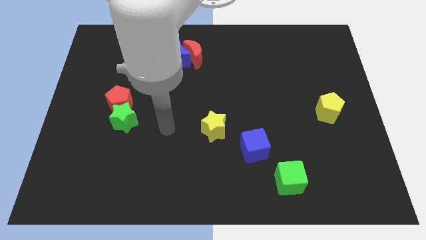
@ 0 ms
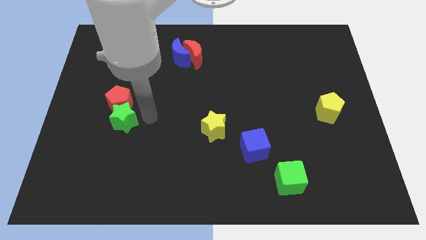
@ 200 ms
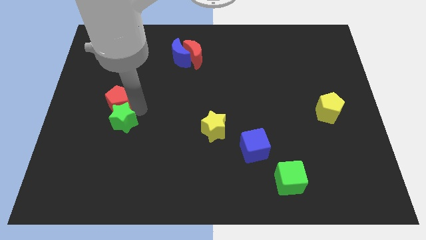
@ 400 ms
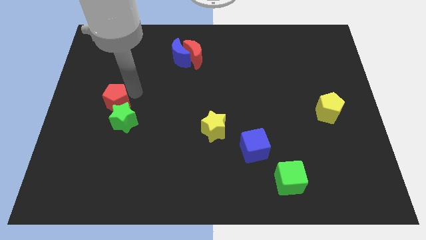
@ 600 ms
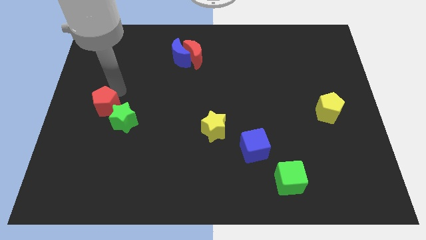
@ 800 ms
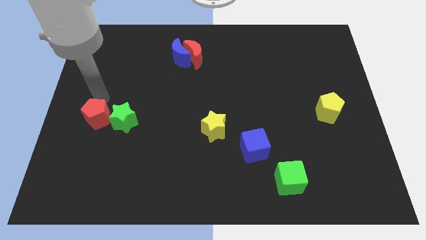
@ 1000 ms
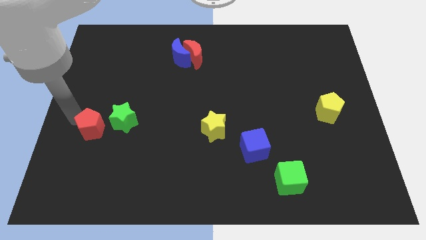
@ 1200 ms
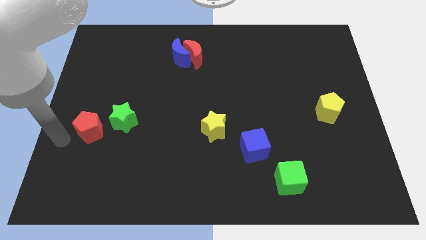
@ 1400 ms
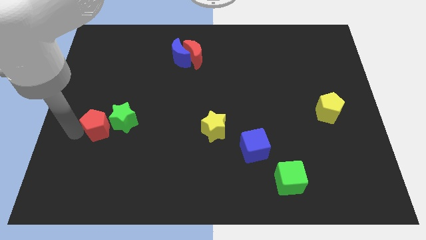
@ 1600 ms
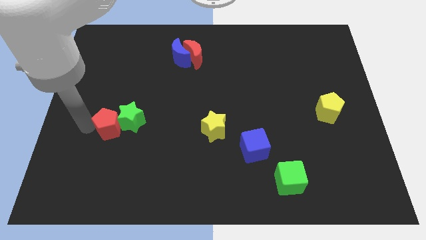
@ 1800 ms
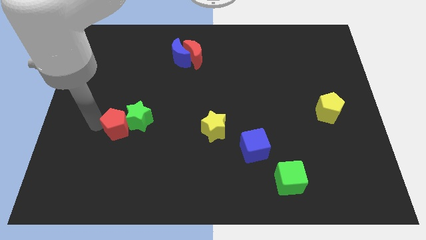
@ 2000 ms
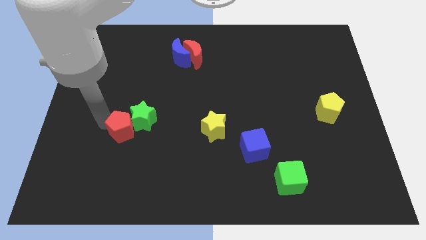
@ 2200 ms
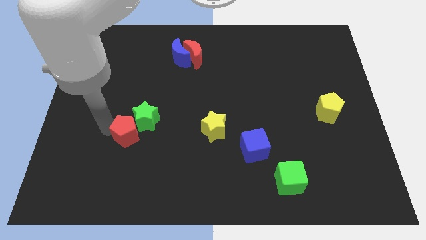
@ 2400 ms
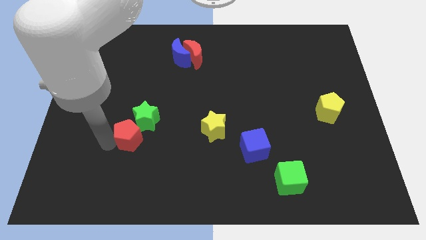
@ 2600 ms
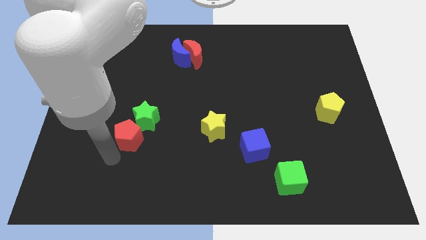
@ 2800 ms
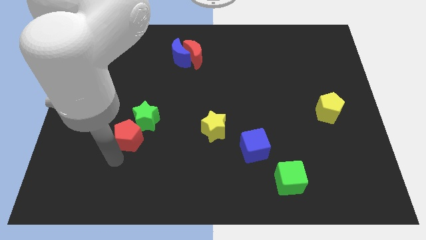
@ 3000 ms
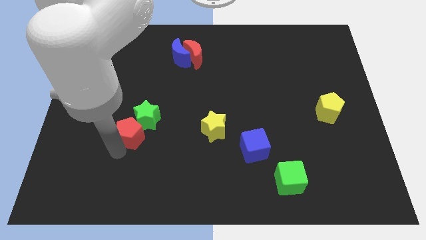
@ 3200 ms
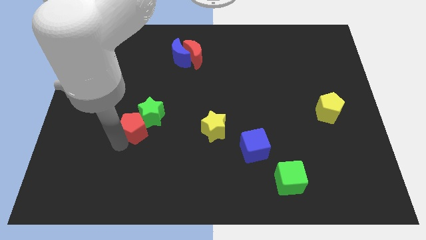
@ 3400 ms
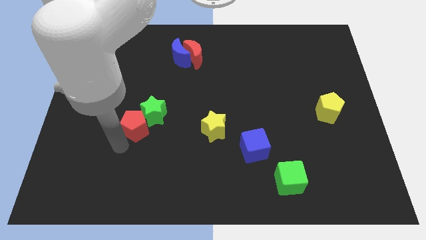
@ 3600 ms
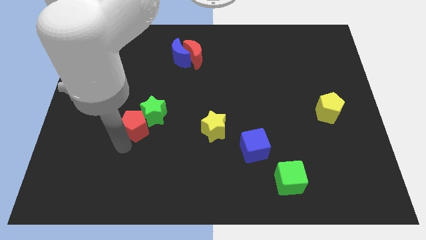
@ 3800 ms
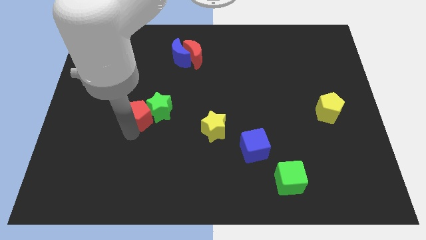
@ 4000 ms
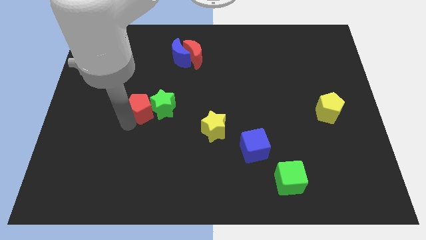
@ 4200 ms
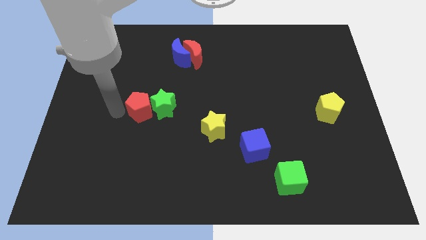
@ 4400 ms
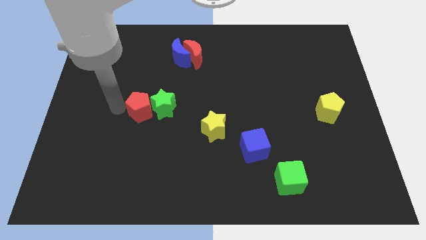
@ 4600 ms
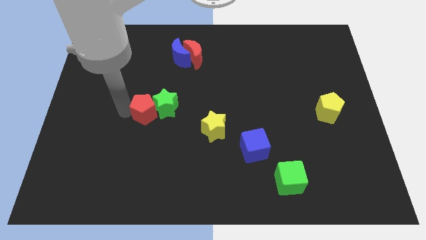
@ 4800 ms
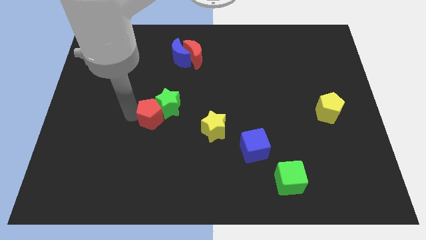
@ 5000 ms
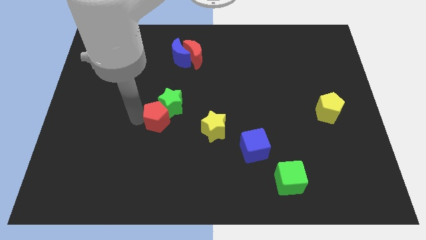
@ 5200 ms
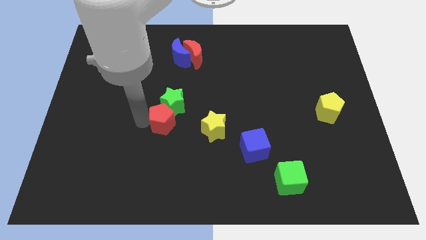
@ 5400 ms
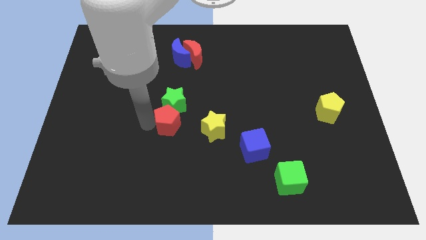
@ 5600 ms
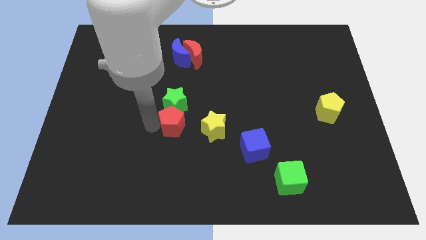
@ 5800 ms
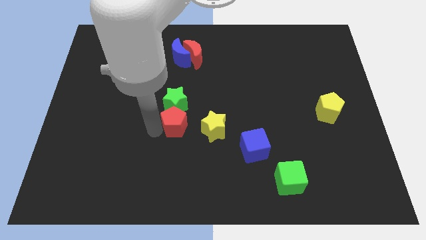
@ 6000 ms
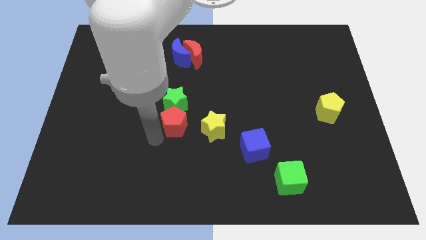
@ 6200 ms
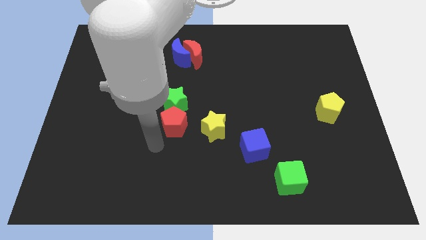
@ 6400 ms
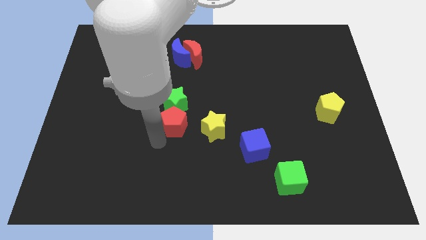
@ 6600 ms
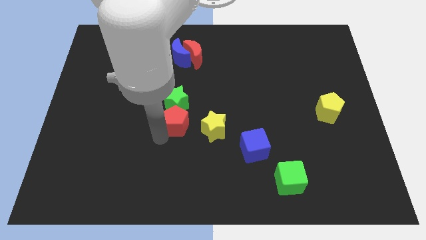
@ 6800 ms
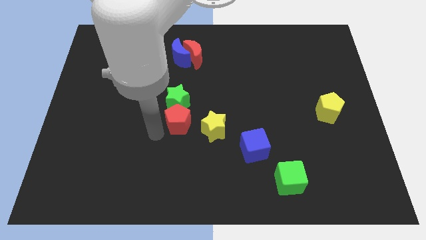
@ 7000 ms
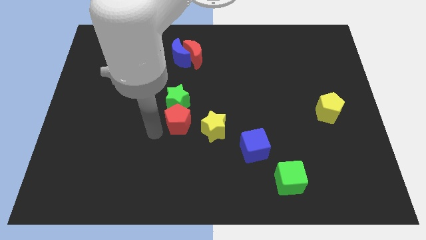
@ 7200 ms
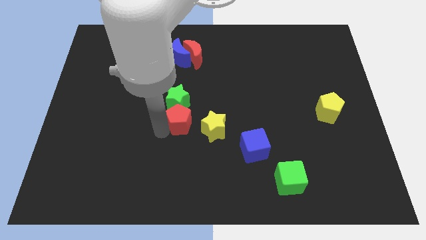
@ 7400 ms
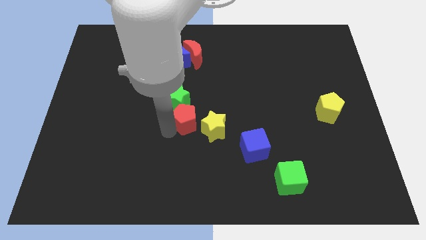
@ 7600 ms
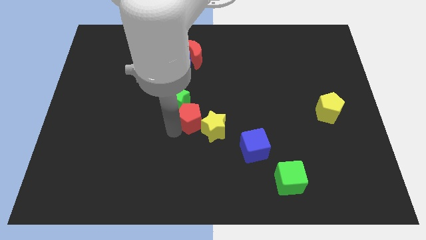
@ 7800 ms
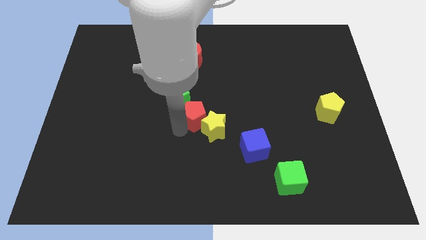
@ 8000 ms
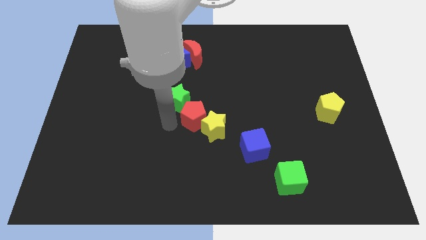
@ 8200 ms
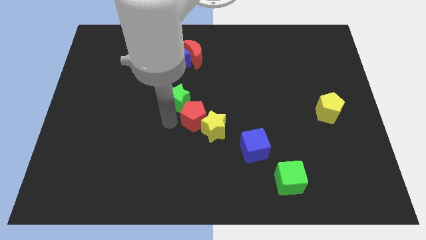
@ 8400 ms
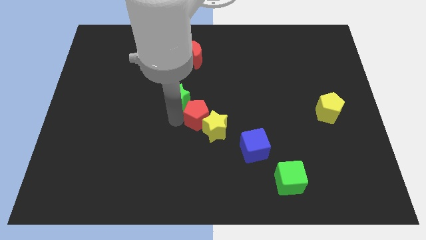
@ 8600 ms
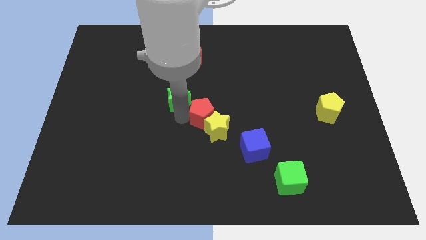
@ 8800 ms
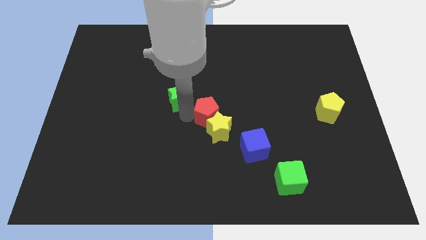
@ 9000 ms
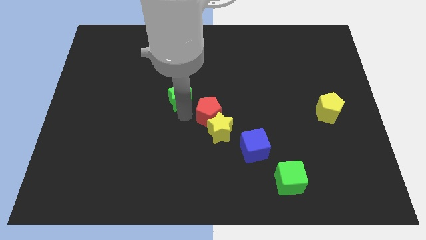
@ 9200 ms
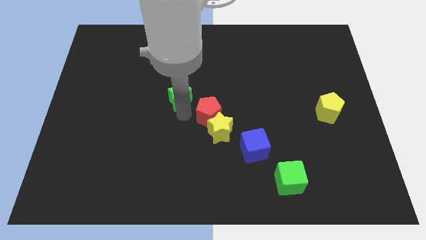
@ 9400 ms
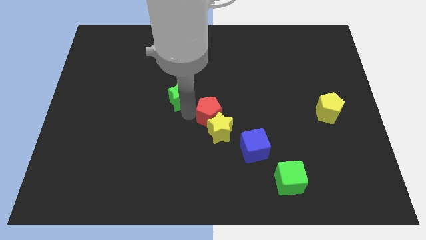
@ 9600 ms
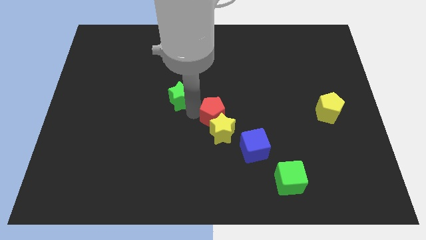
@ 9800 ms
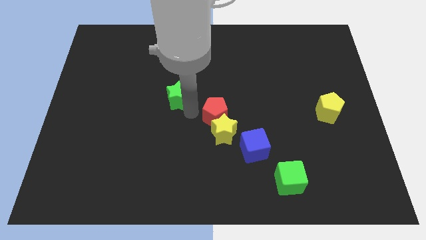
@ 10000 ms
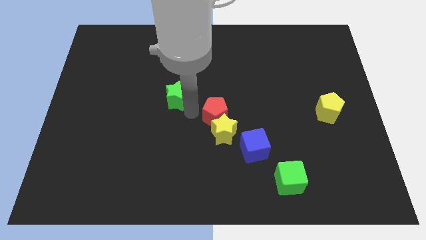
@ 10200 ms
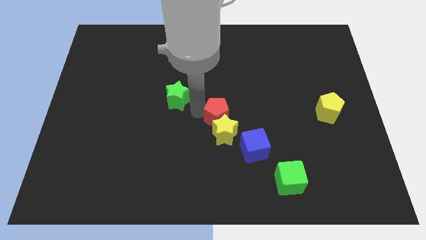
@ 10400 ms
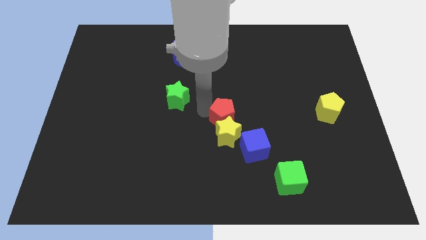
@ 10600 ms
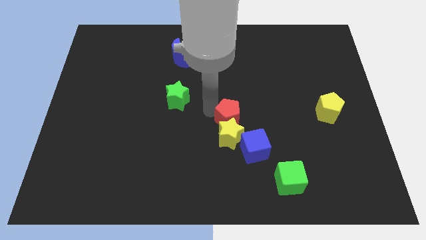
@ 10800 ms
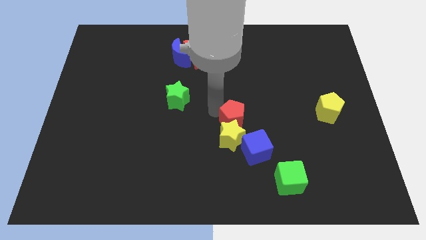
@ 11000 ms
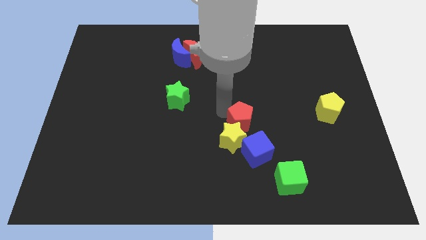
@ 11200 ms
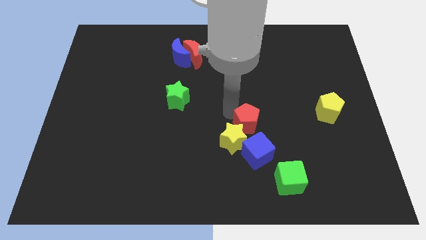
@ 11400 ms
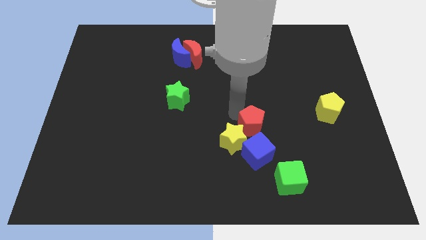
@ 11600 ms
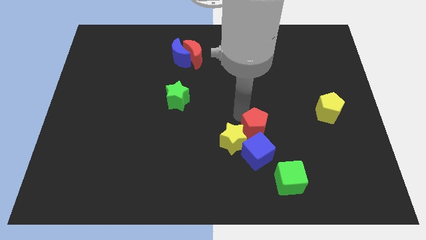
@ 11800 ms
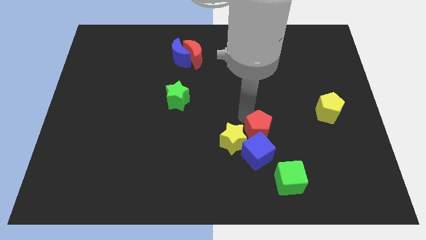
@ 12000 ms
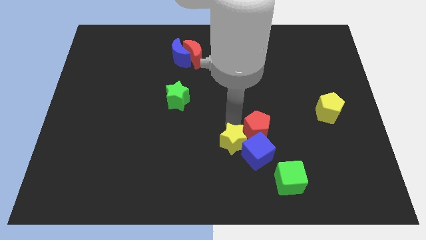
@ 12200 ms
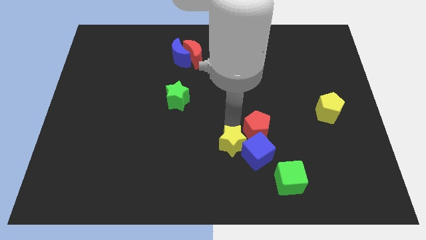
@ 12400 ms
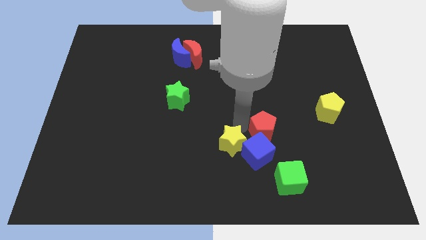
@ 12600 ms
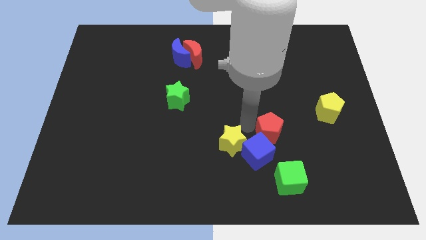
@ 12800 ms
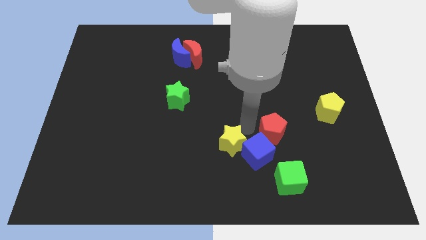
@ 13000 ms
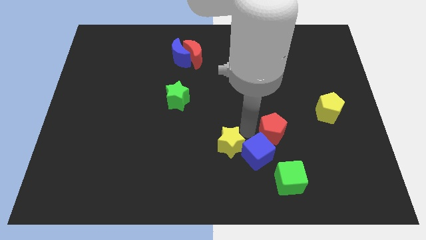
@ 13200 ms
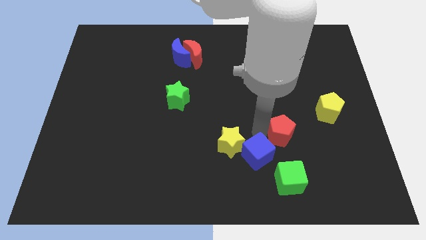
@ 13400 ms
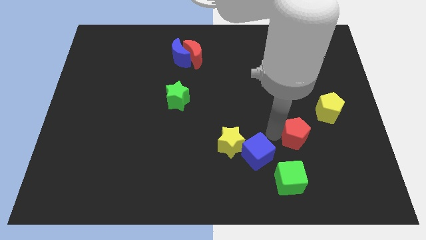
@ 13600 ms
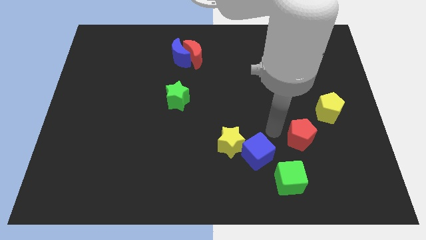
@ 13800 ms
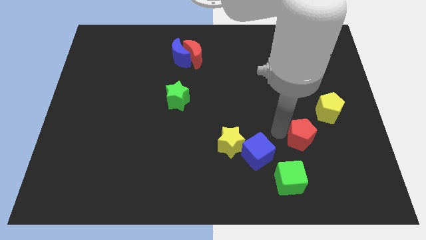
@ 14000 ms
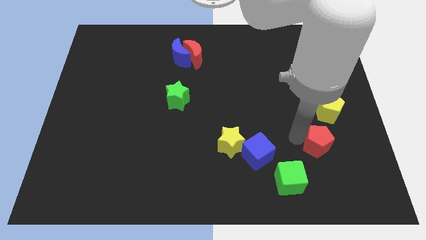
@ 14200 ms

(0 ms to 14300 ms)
put the red pentagon to the bottom side of the yellow pentagon

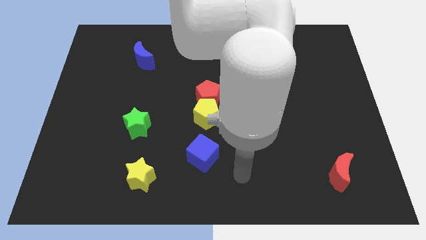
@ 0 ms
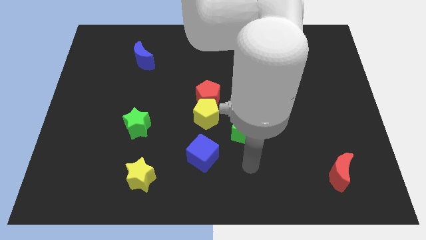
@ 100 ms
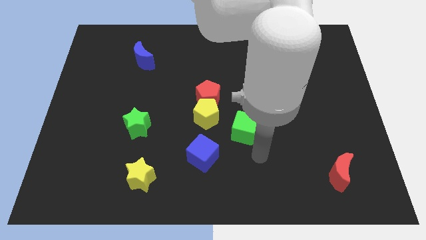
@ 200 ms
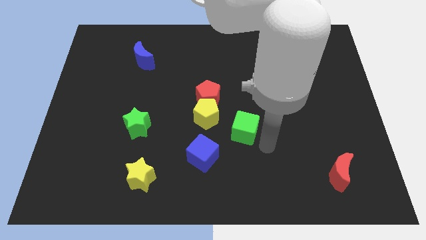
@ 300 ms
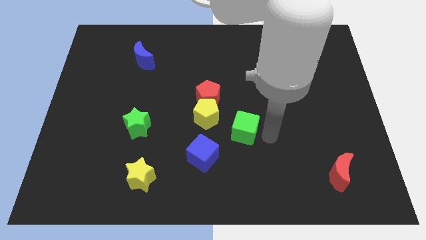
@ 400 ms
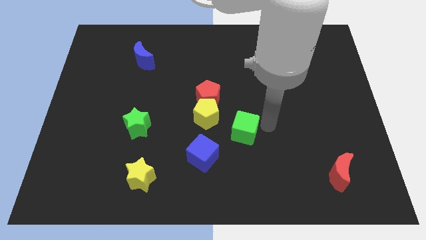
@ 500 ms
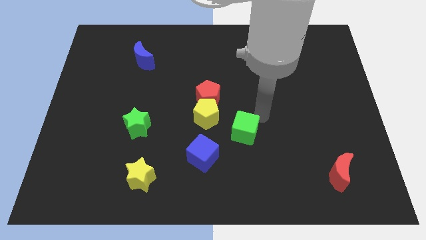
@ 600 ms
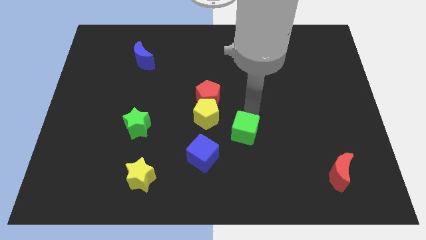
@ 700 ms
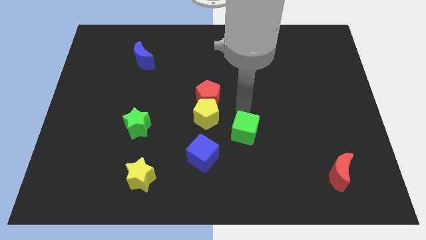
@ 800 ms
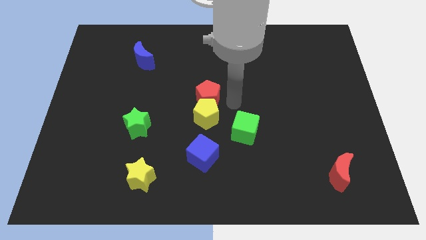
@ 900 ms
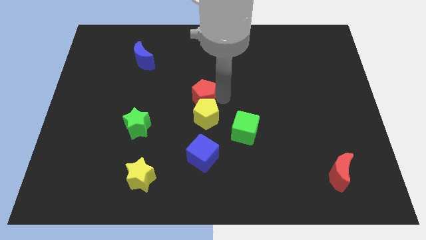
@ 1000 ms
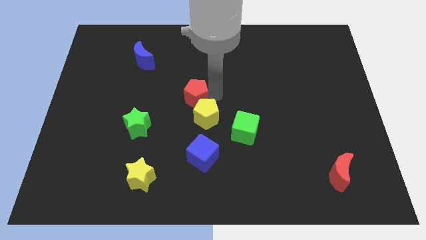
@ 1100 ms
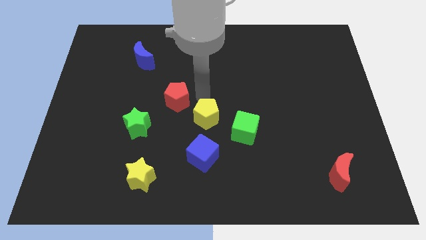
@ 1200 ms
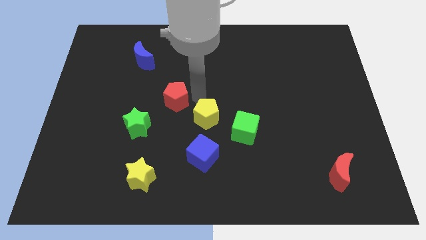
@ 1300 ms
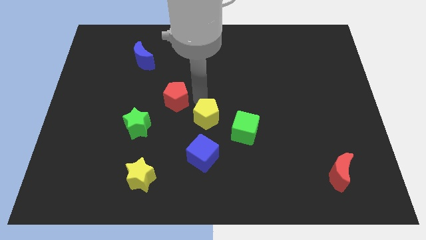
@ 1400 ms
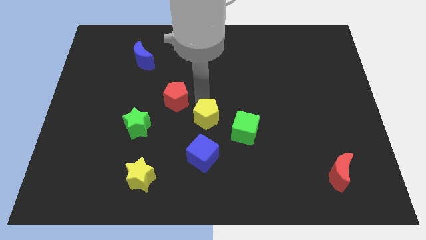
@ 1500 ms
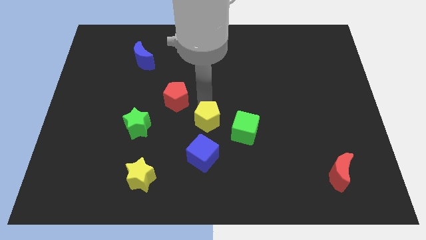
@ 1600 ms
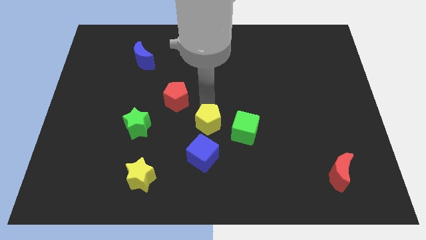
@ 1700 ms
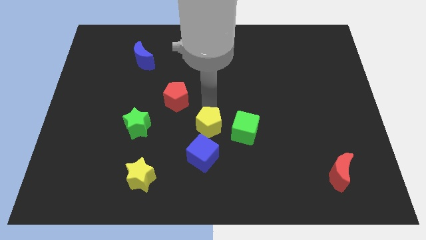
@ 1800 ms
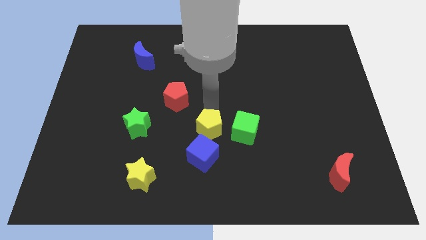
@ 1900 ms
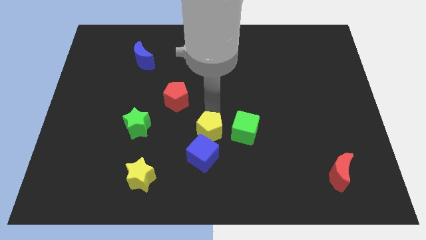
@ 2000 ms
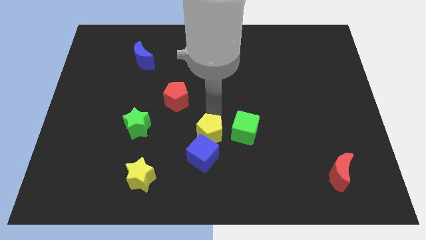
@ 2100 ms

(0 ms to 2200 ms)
move the yellow pentagon to the bottom left of the green cube
